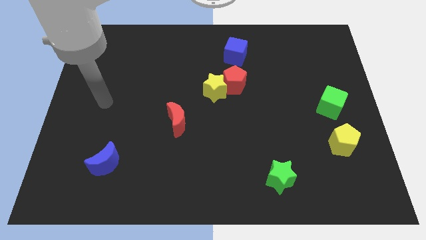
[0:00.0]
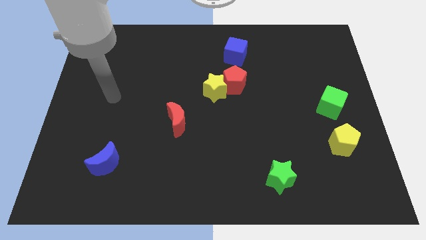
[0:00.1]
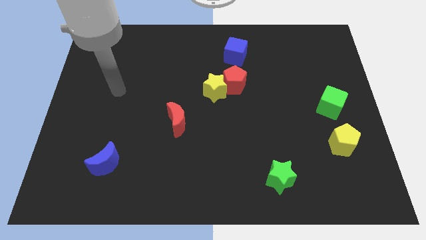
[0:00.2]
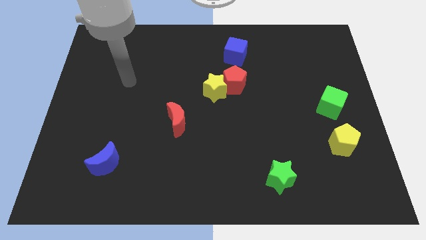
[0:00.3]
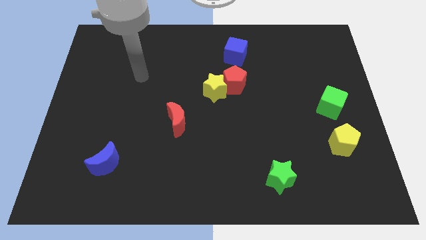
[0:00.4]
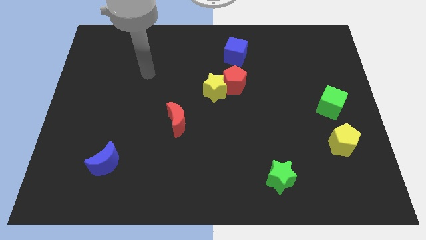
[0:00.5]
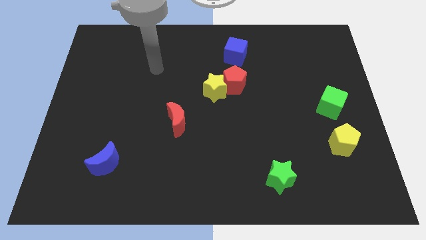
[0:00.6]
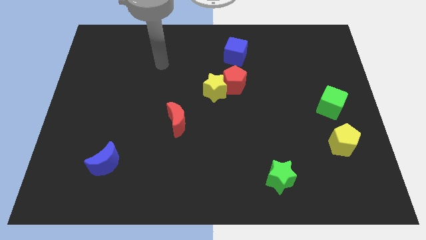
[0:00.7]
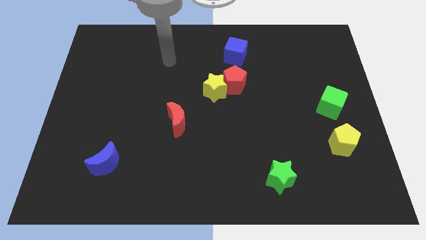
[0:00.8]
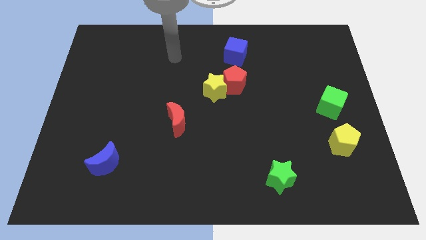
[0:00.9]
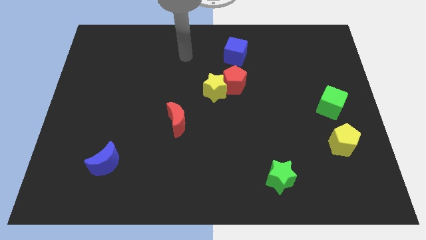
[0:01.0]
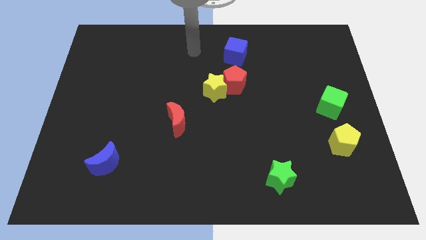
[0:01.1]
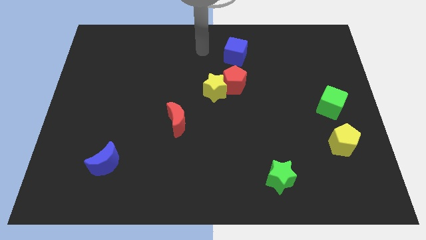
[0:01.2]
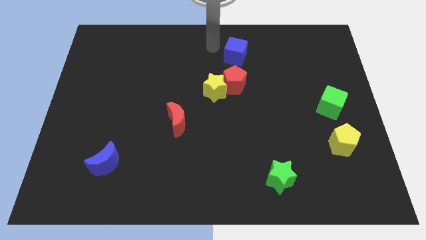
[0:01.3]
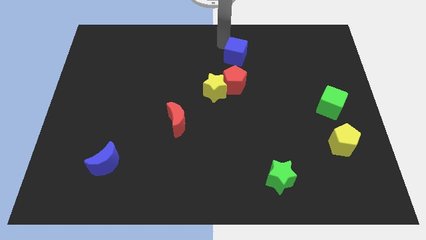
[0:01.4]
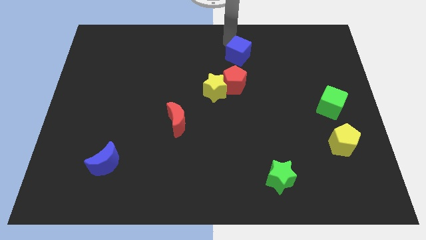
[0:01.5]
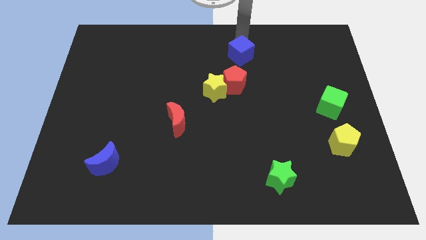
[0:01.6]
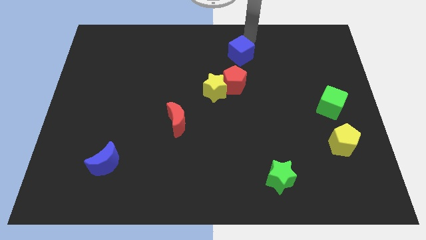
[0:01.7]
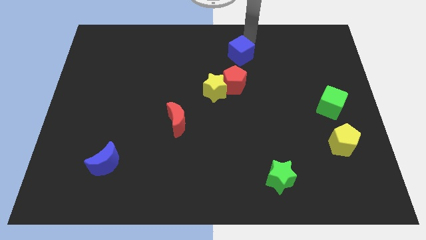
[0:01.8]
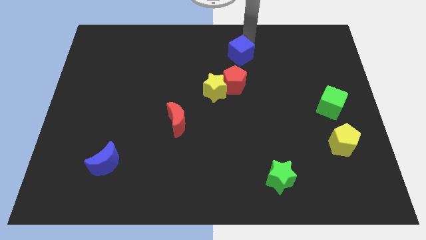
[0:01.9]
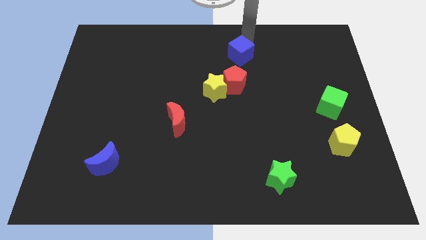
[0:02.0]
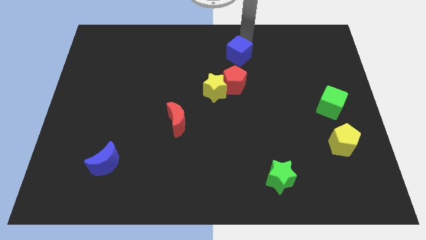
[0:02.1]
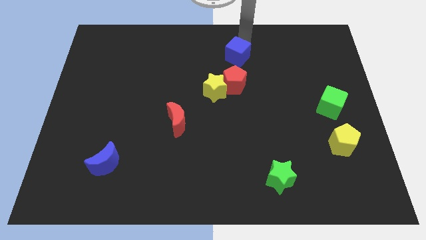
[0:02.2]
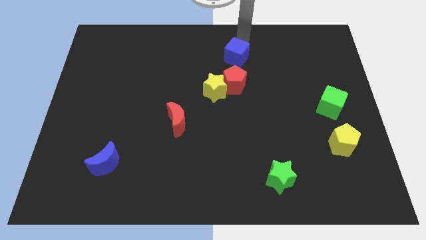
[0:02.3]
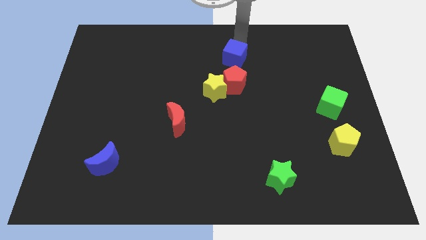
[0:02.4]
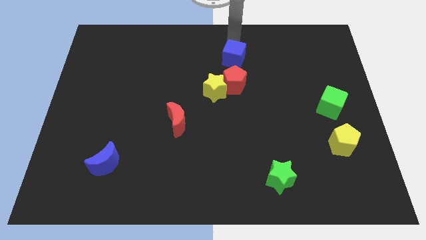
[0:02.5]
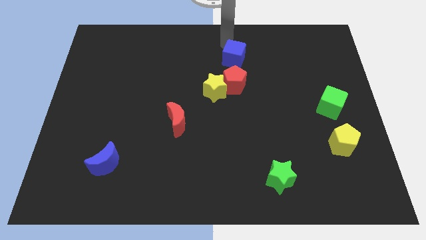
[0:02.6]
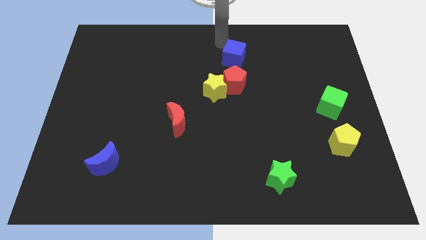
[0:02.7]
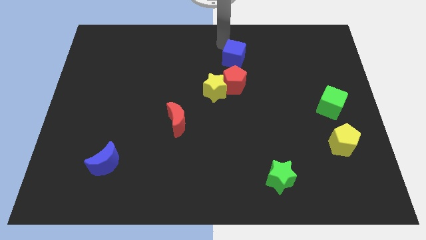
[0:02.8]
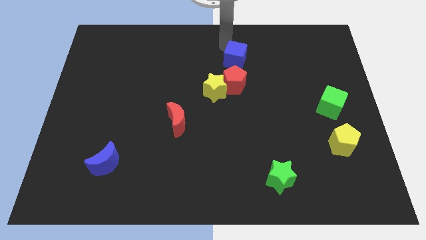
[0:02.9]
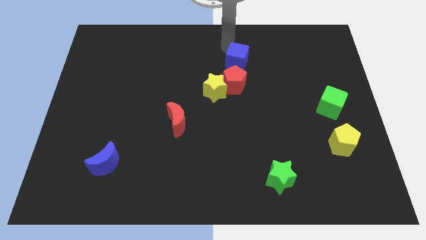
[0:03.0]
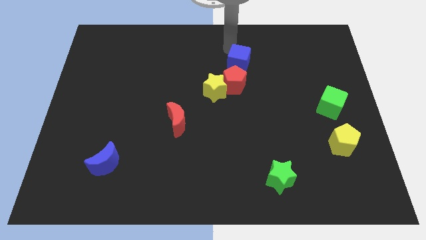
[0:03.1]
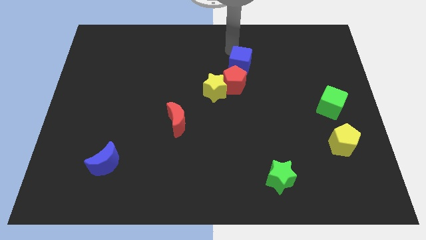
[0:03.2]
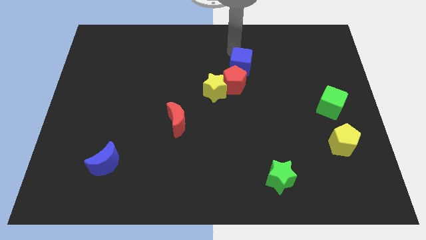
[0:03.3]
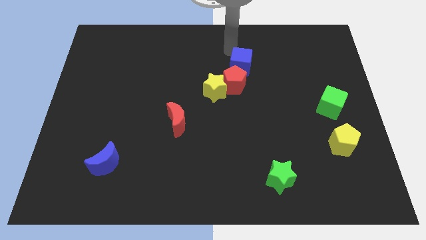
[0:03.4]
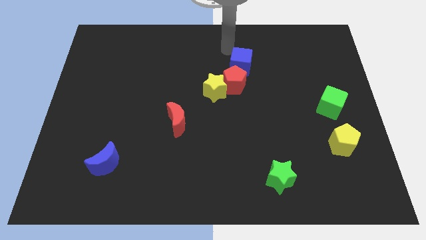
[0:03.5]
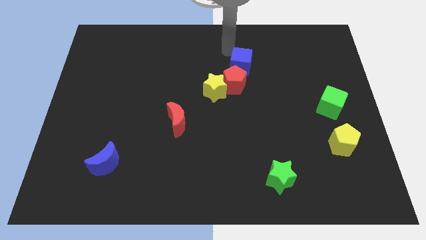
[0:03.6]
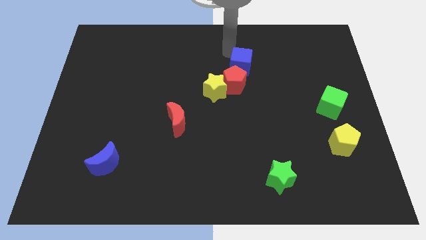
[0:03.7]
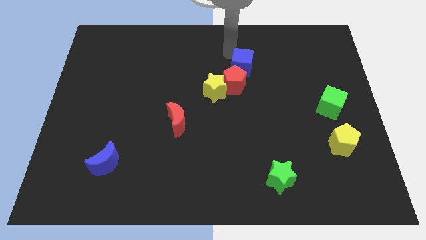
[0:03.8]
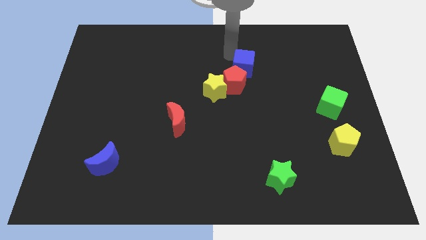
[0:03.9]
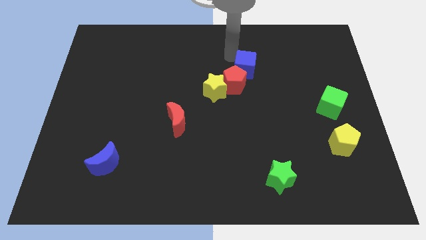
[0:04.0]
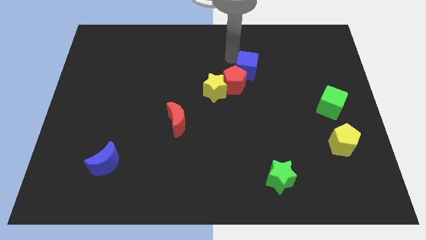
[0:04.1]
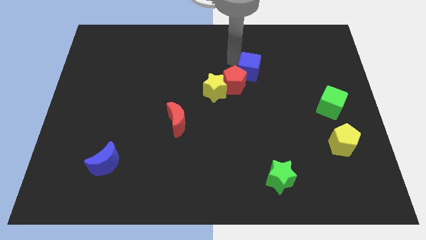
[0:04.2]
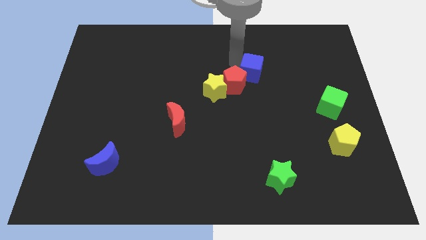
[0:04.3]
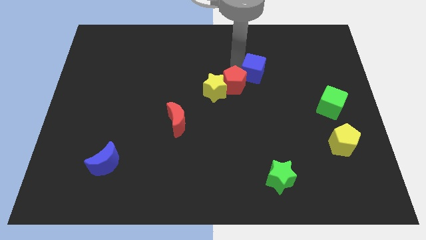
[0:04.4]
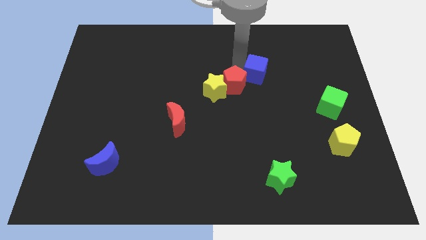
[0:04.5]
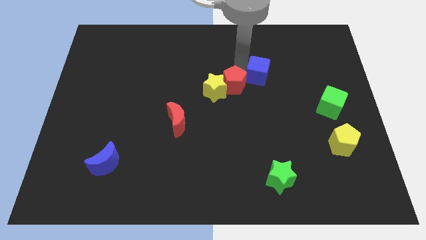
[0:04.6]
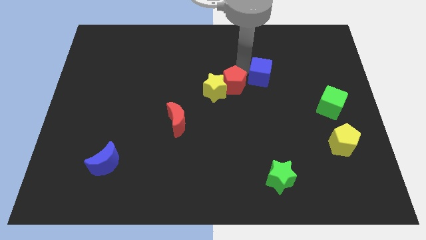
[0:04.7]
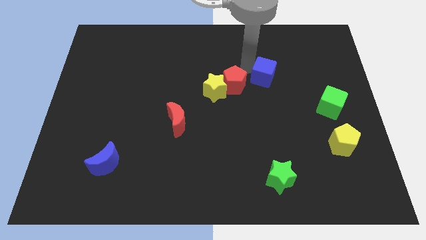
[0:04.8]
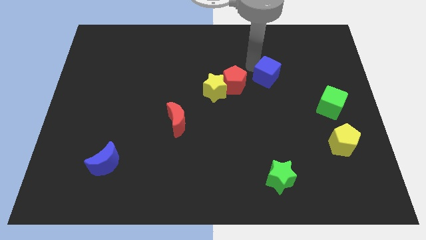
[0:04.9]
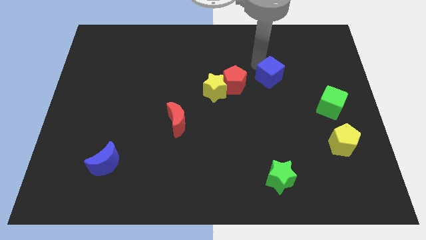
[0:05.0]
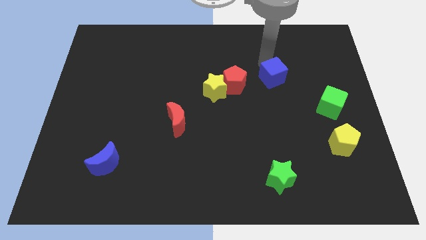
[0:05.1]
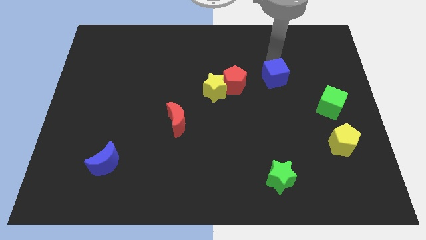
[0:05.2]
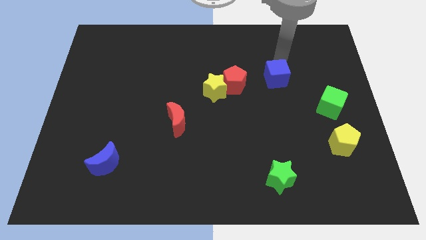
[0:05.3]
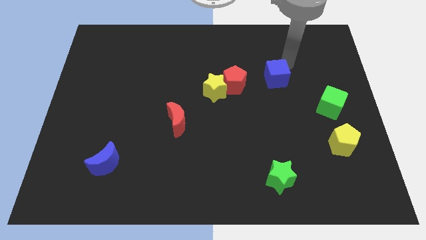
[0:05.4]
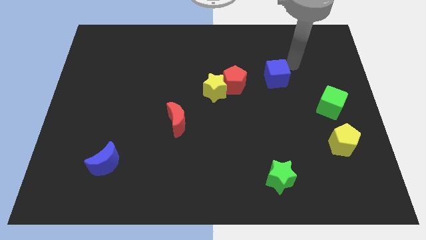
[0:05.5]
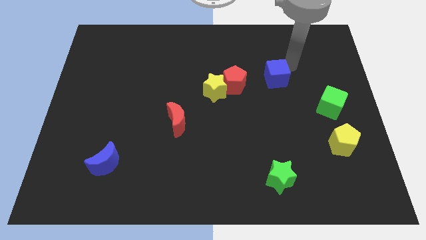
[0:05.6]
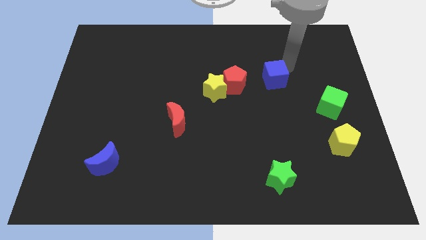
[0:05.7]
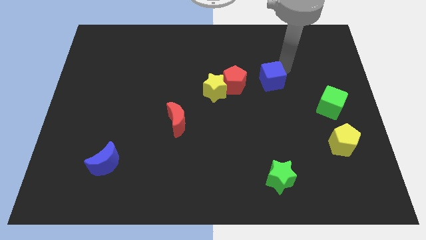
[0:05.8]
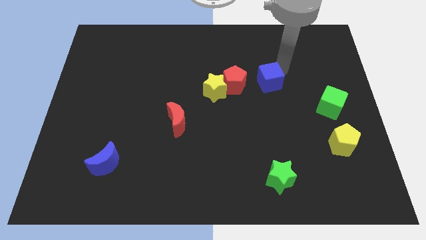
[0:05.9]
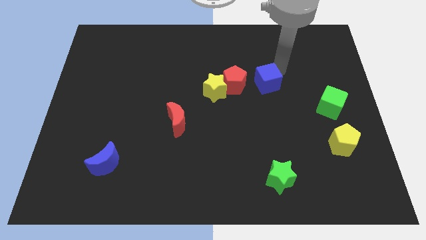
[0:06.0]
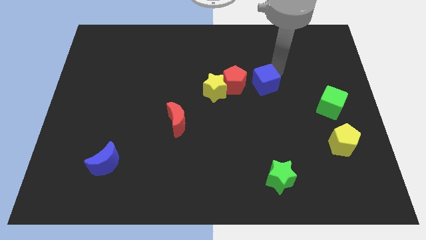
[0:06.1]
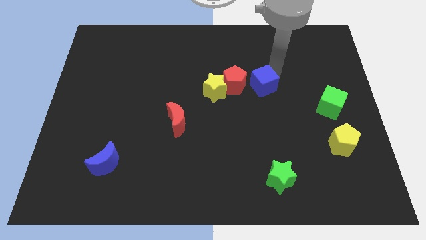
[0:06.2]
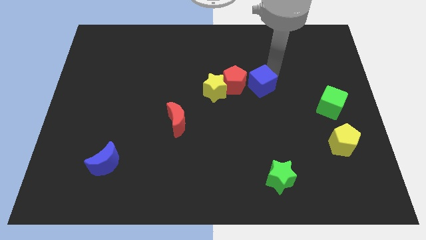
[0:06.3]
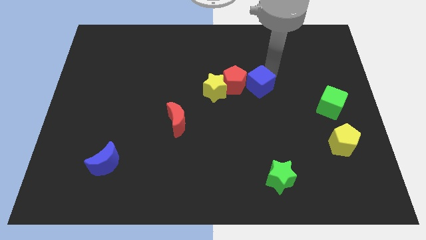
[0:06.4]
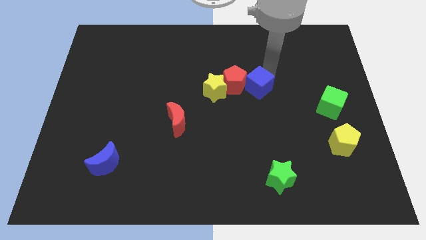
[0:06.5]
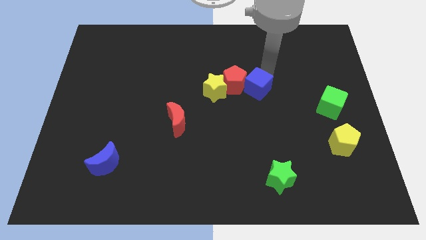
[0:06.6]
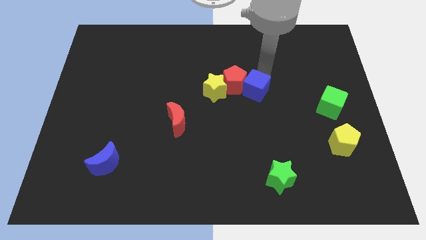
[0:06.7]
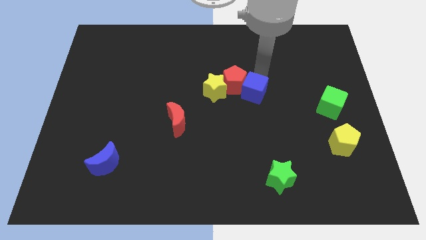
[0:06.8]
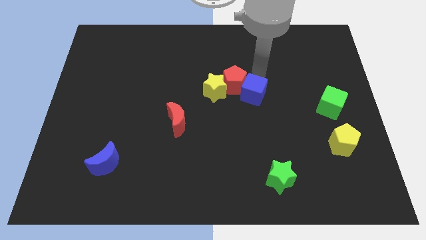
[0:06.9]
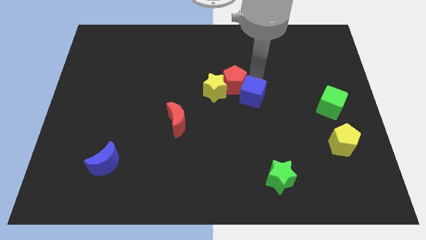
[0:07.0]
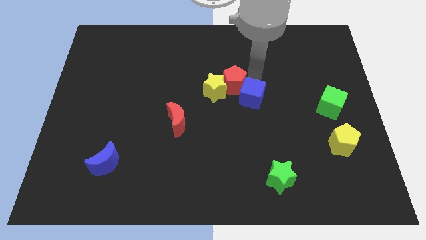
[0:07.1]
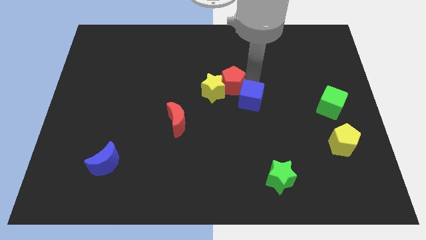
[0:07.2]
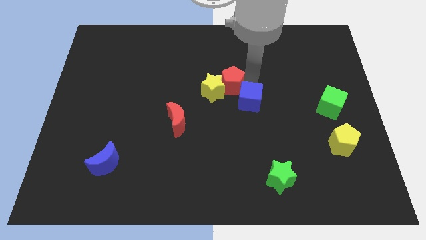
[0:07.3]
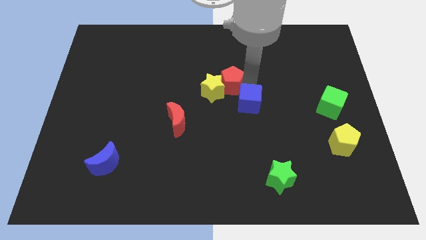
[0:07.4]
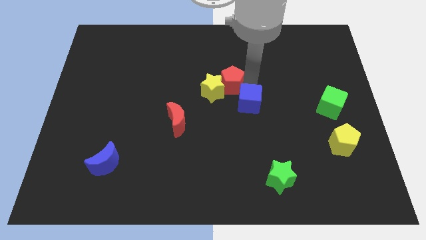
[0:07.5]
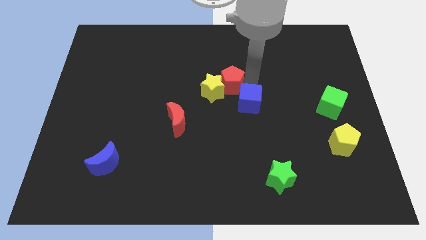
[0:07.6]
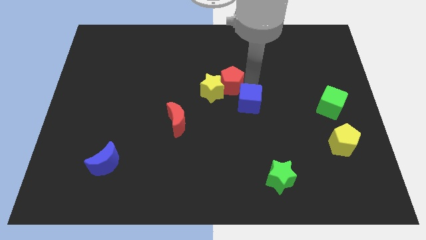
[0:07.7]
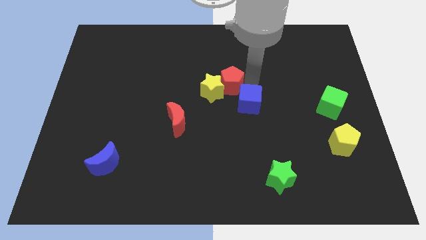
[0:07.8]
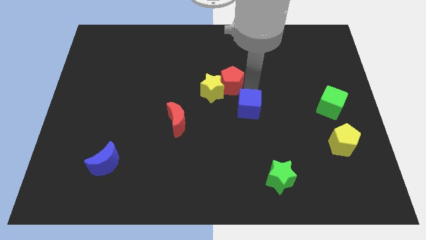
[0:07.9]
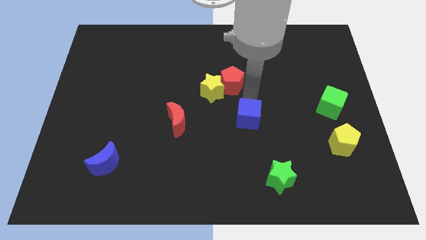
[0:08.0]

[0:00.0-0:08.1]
push the blue cube down

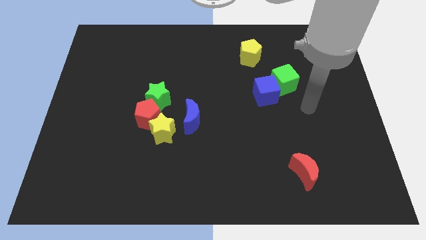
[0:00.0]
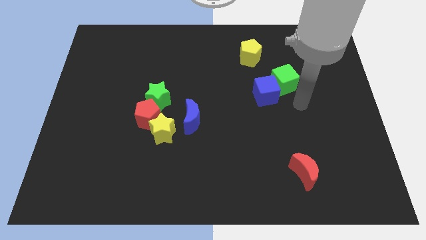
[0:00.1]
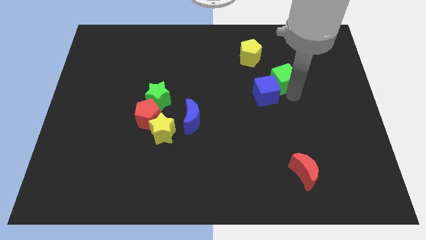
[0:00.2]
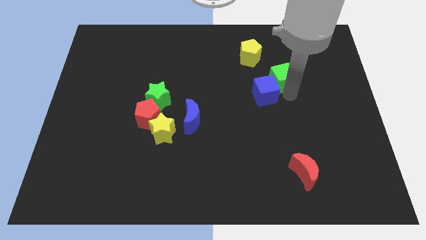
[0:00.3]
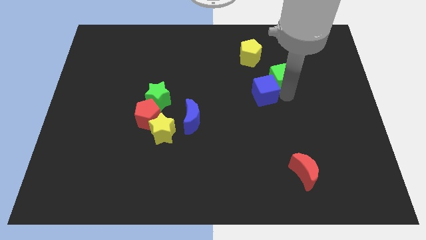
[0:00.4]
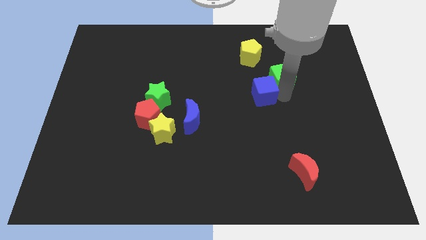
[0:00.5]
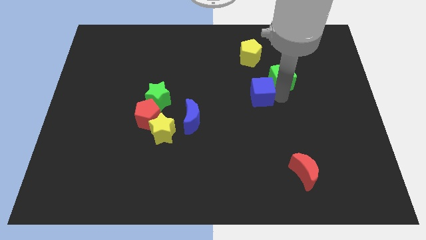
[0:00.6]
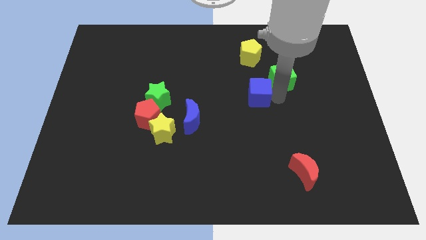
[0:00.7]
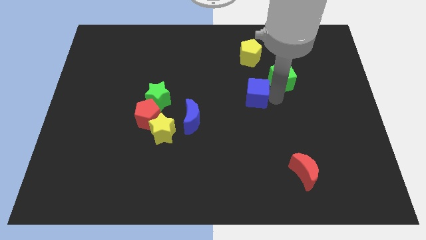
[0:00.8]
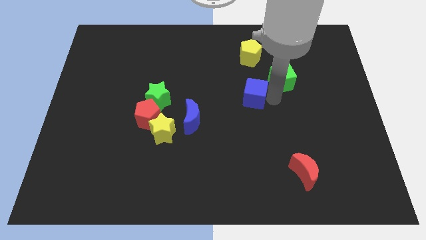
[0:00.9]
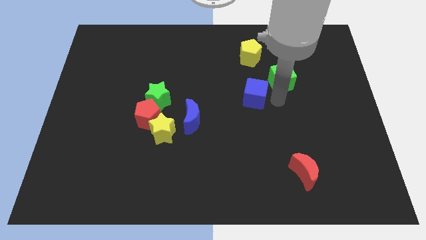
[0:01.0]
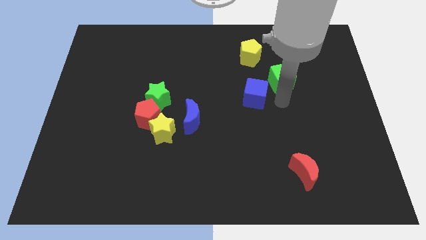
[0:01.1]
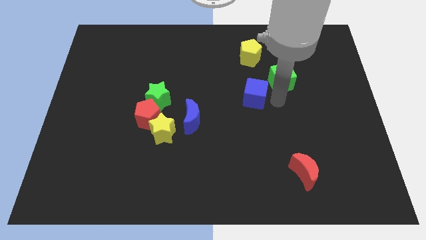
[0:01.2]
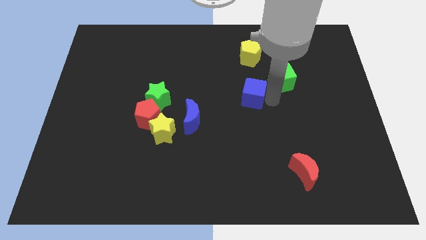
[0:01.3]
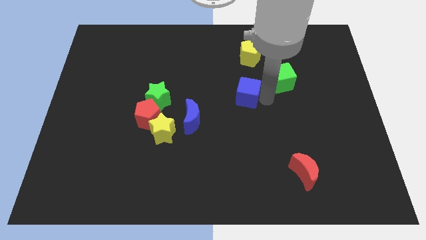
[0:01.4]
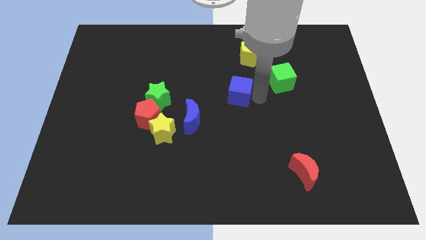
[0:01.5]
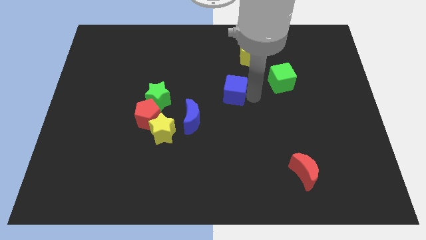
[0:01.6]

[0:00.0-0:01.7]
slightly move the blue cube to the left
